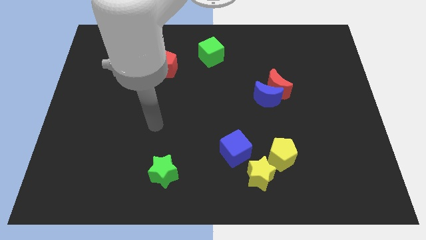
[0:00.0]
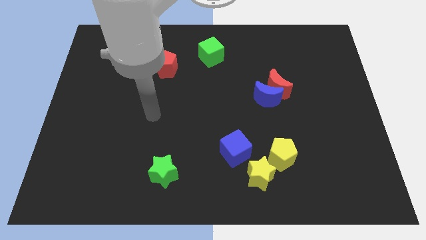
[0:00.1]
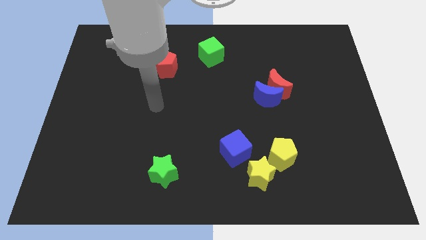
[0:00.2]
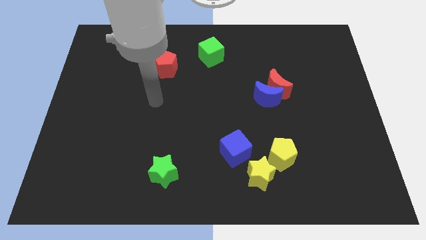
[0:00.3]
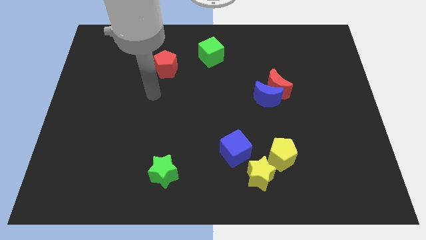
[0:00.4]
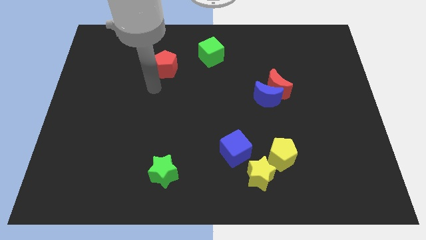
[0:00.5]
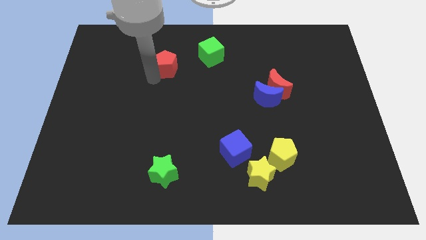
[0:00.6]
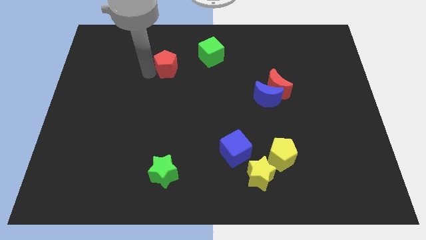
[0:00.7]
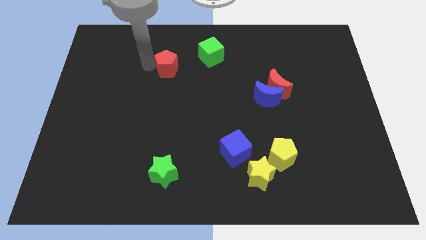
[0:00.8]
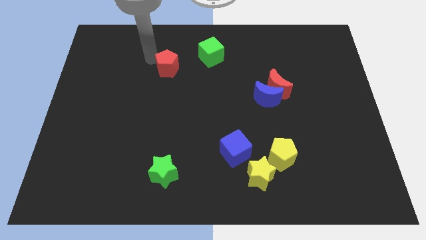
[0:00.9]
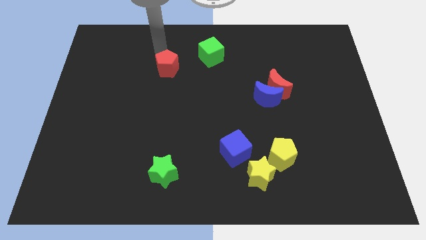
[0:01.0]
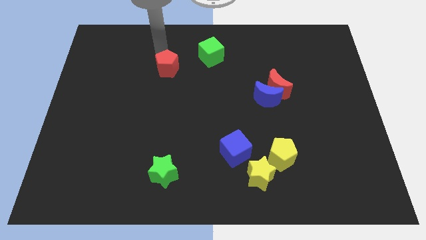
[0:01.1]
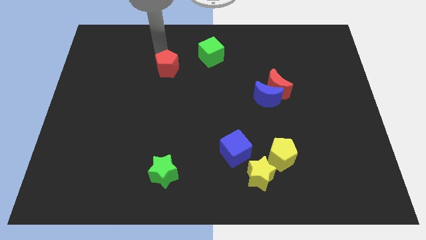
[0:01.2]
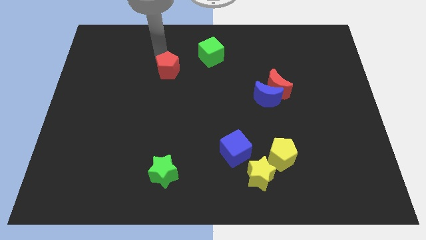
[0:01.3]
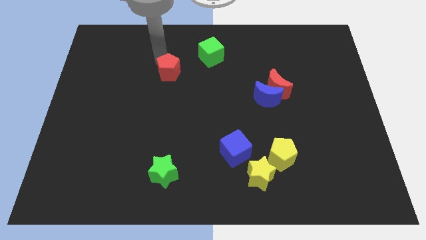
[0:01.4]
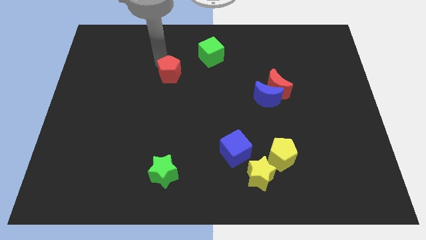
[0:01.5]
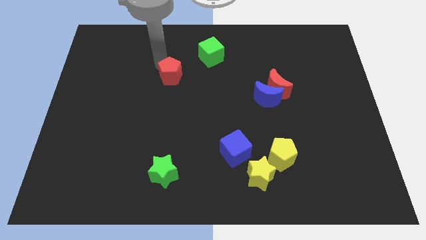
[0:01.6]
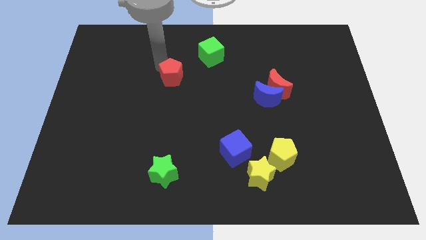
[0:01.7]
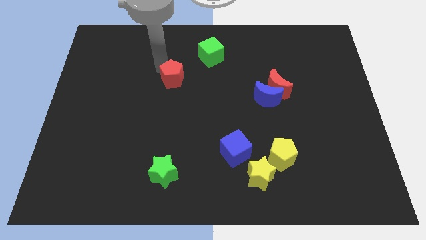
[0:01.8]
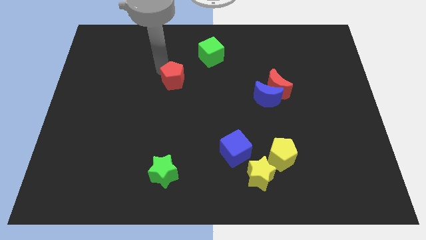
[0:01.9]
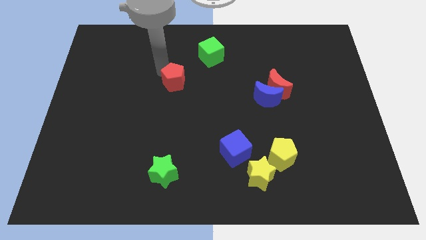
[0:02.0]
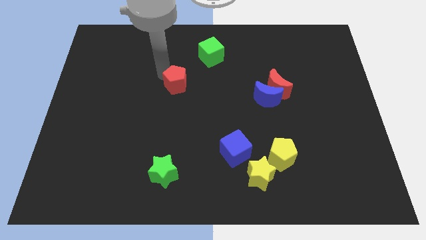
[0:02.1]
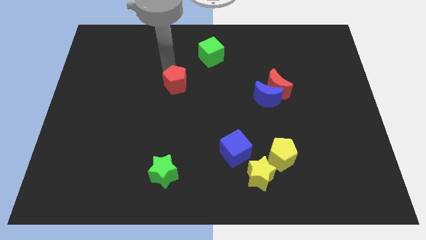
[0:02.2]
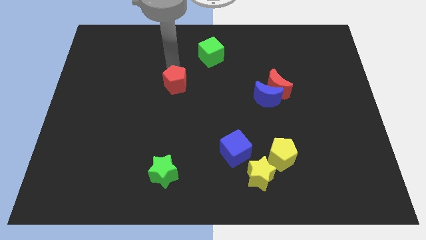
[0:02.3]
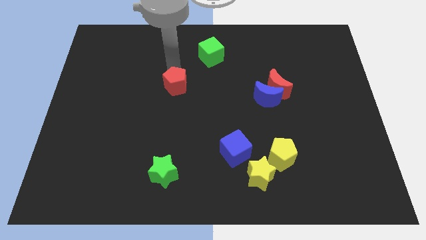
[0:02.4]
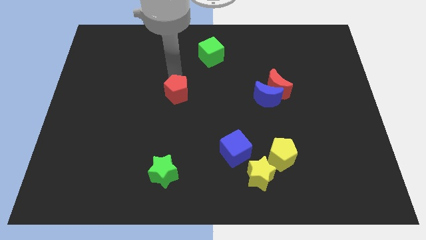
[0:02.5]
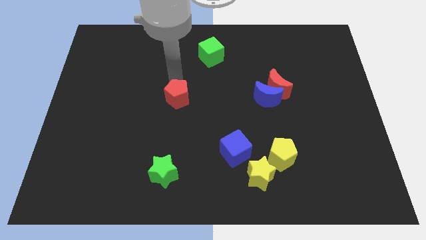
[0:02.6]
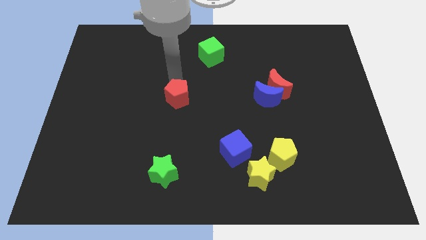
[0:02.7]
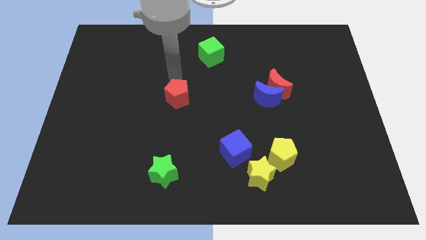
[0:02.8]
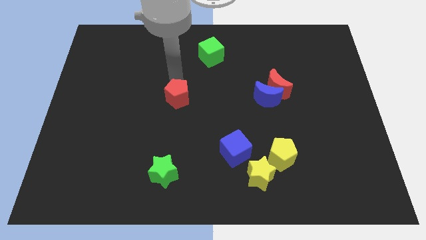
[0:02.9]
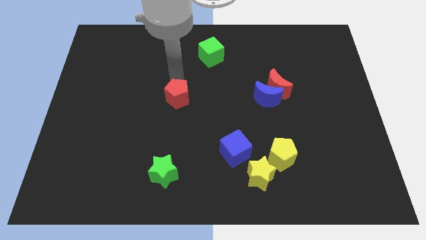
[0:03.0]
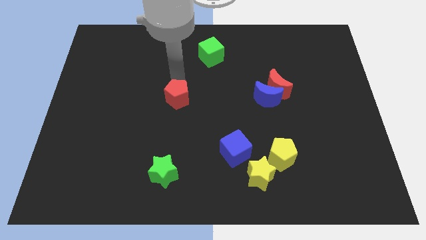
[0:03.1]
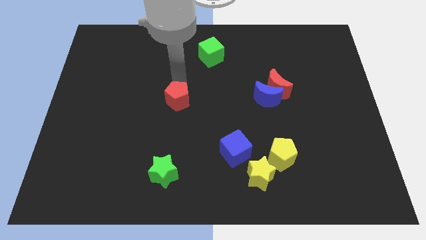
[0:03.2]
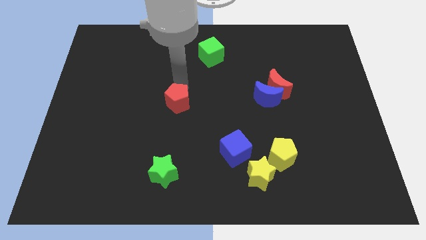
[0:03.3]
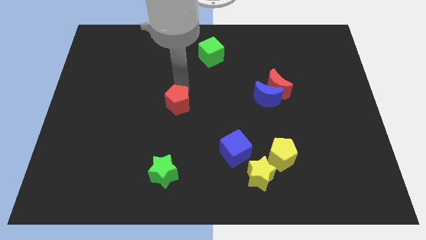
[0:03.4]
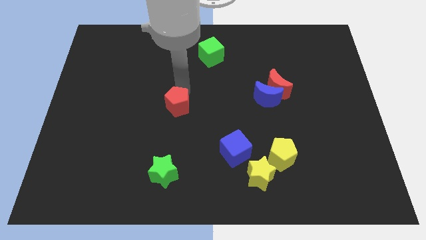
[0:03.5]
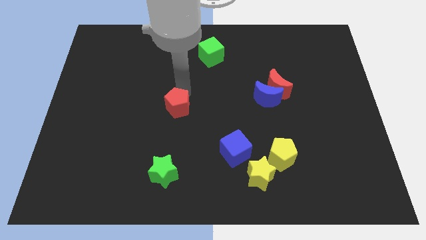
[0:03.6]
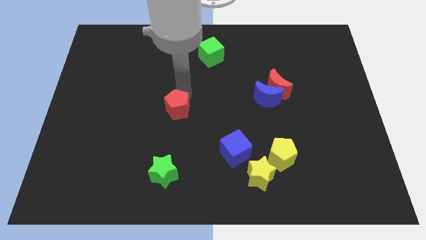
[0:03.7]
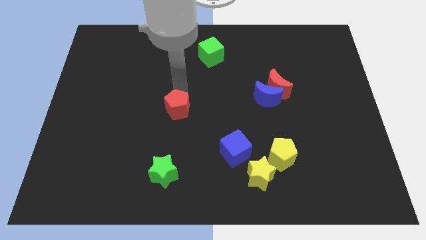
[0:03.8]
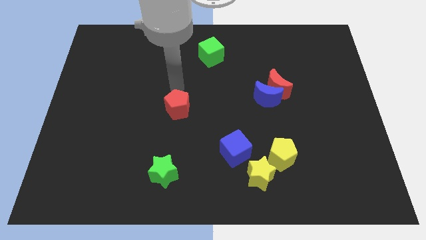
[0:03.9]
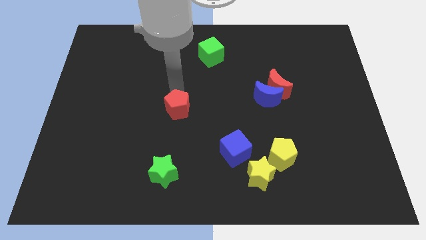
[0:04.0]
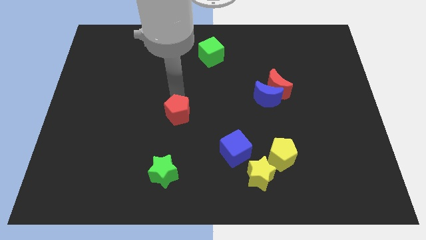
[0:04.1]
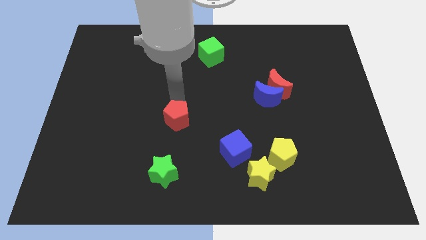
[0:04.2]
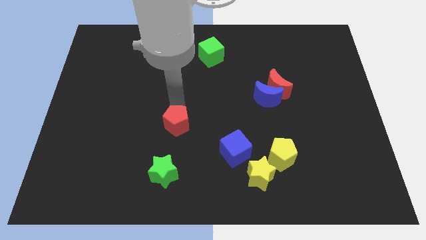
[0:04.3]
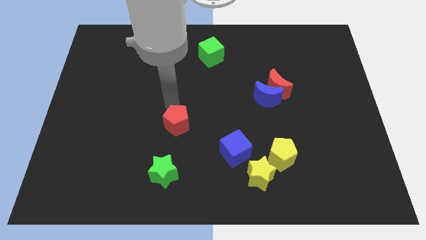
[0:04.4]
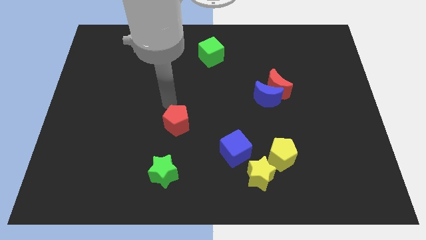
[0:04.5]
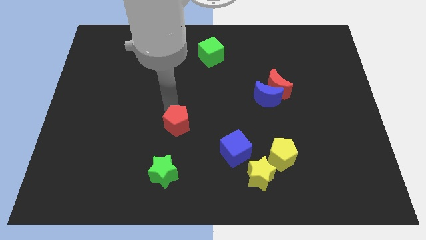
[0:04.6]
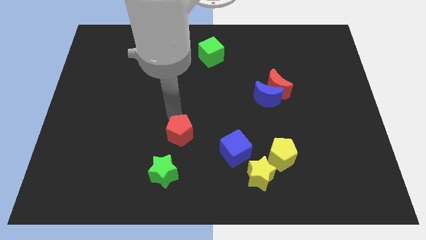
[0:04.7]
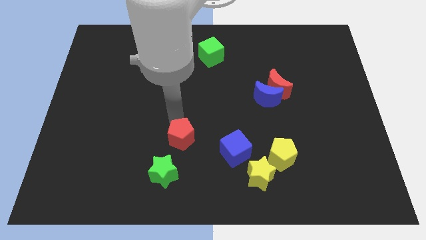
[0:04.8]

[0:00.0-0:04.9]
put the red pentagon to the top right of the green star

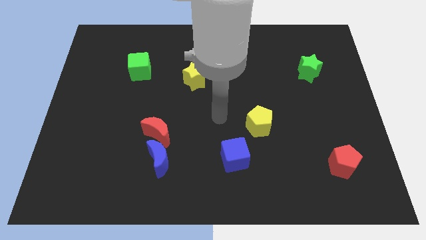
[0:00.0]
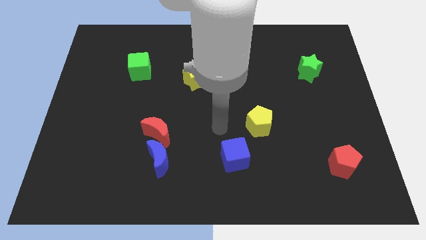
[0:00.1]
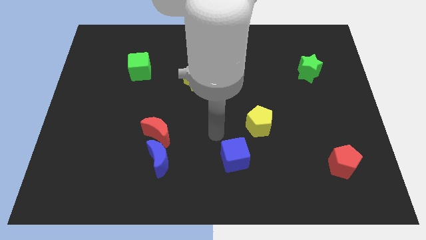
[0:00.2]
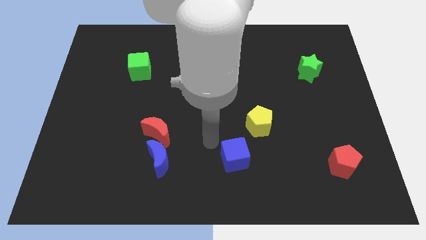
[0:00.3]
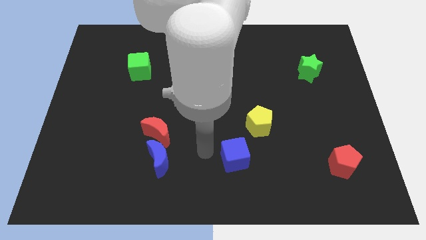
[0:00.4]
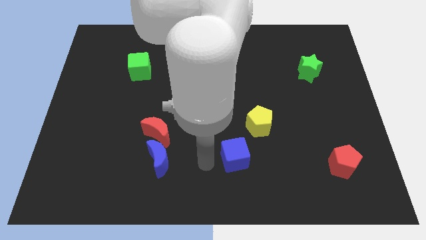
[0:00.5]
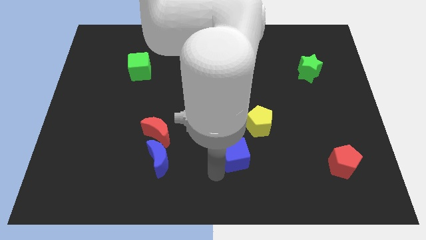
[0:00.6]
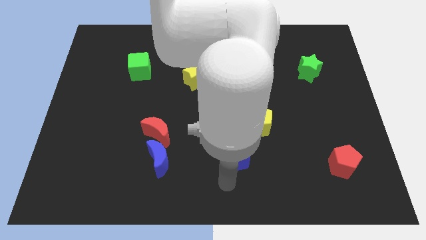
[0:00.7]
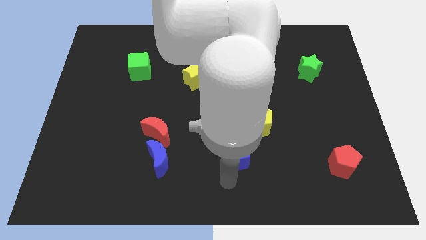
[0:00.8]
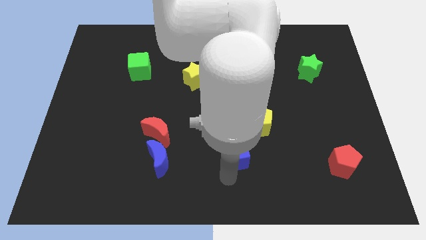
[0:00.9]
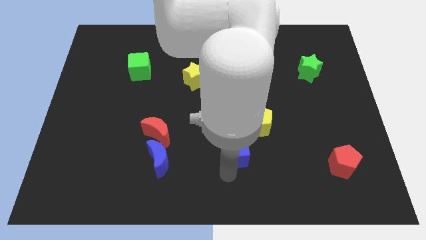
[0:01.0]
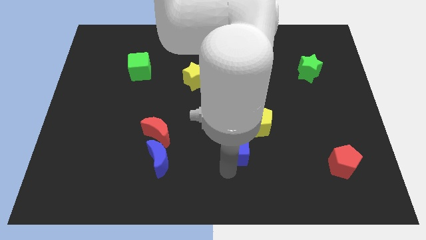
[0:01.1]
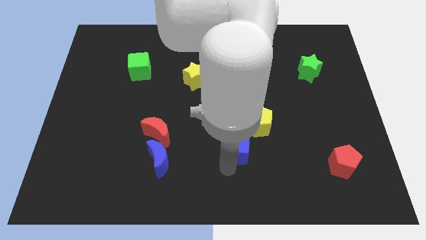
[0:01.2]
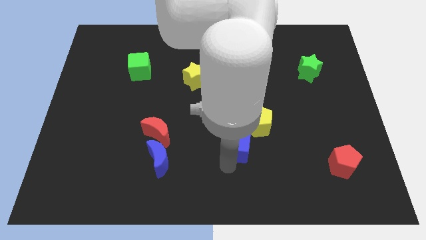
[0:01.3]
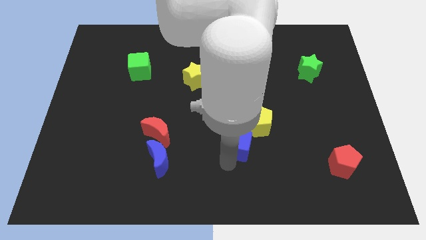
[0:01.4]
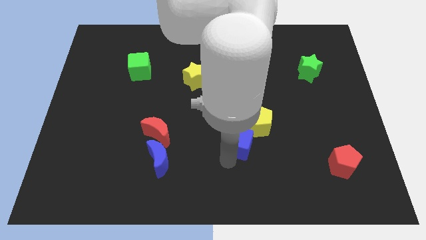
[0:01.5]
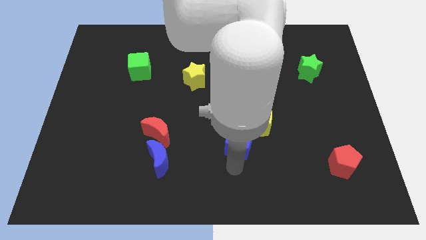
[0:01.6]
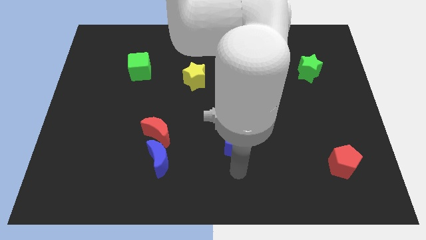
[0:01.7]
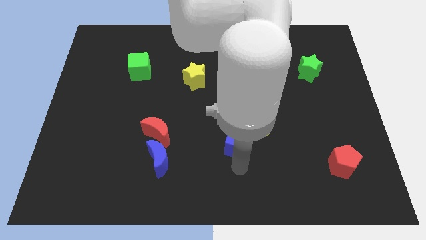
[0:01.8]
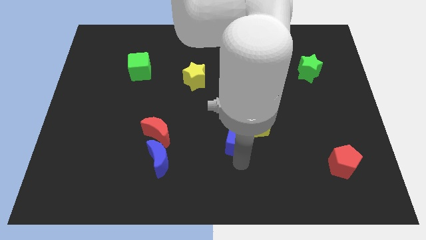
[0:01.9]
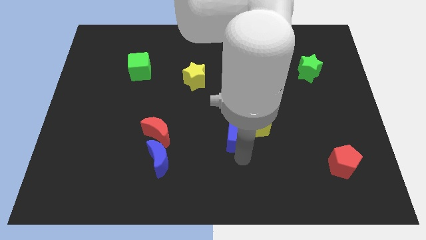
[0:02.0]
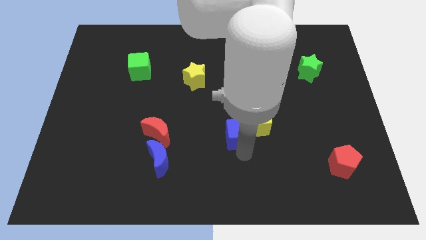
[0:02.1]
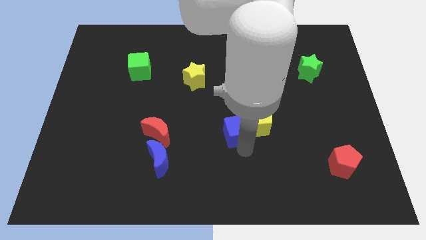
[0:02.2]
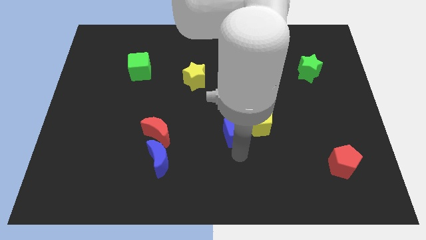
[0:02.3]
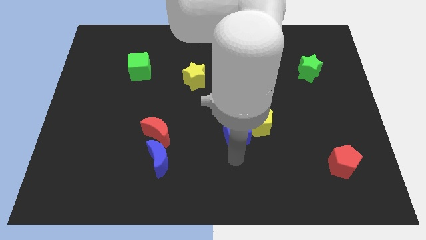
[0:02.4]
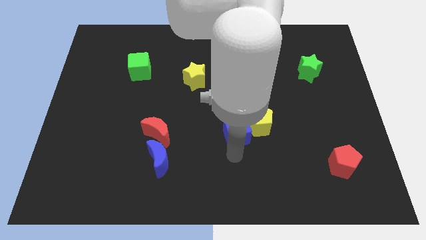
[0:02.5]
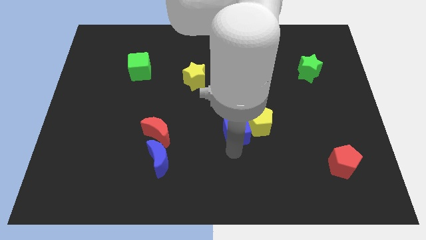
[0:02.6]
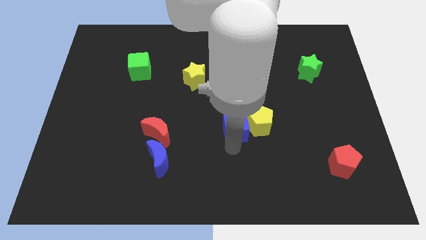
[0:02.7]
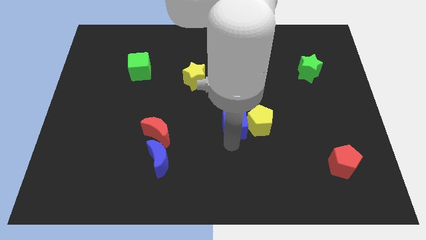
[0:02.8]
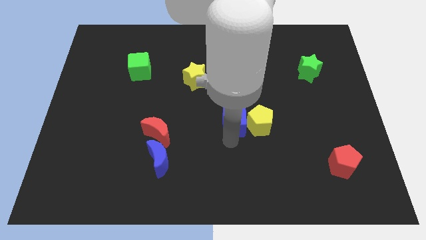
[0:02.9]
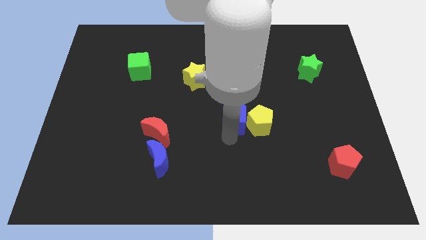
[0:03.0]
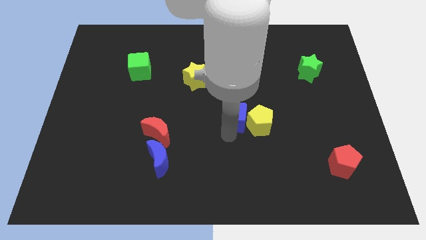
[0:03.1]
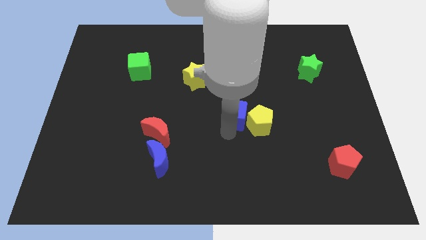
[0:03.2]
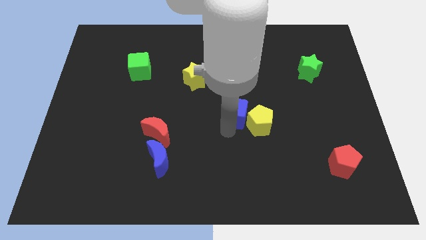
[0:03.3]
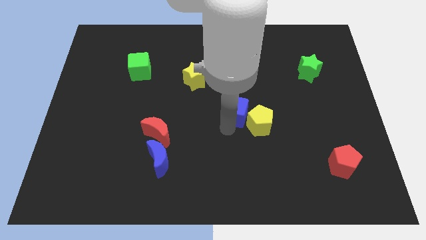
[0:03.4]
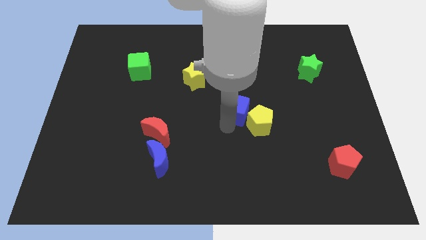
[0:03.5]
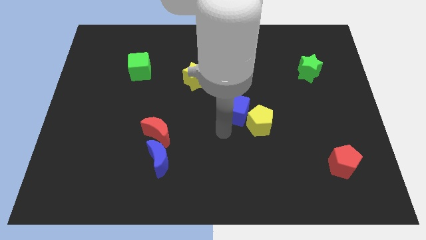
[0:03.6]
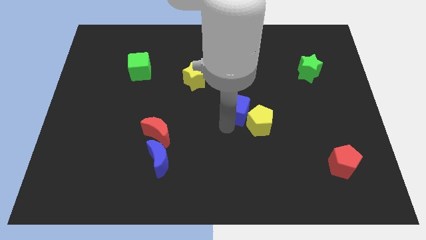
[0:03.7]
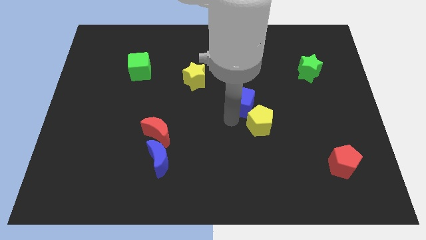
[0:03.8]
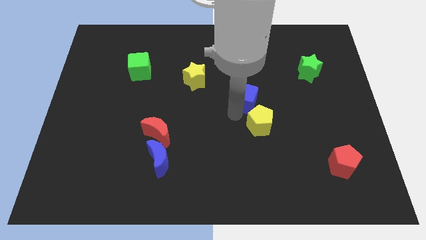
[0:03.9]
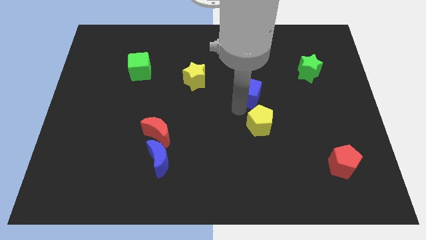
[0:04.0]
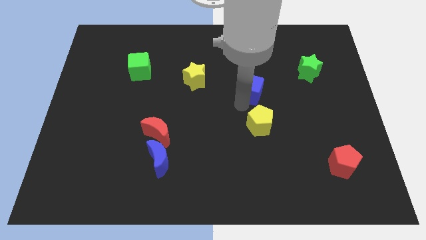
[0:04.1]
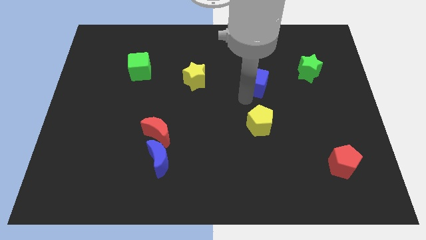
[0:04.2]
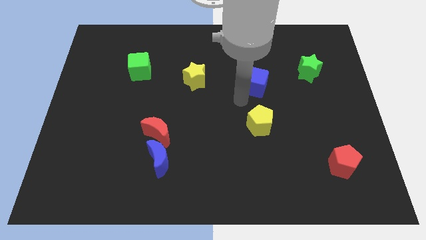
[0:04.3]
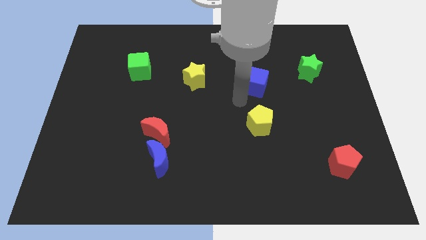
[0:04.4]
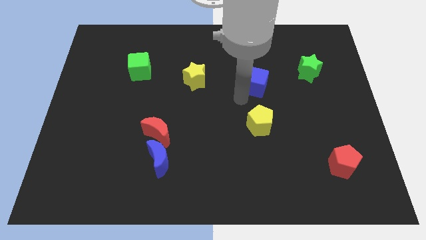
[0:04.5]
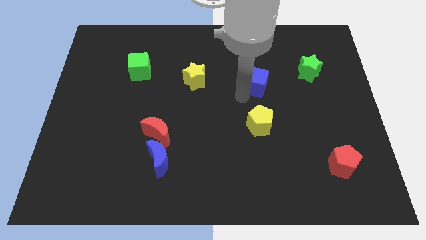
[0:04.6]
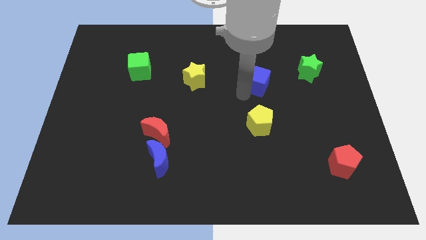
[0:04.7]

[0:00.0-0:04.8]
put the blue cube to the left side of the green star
